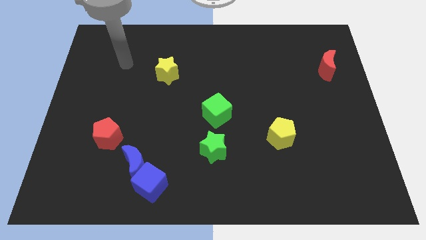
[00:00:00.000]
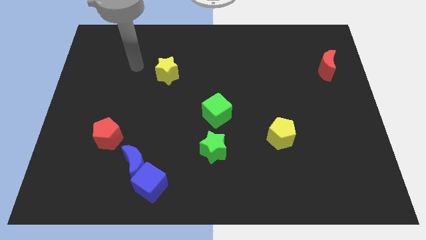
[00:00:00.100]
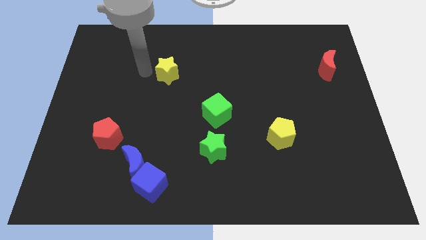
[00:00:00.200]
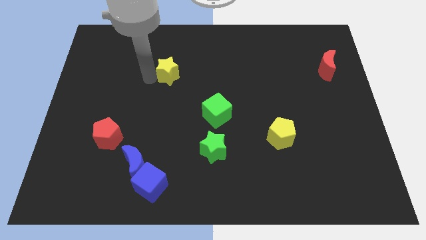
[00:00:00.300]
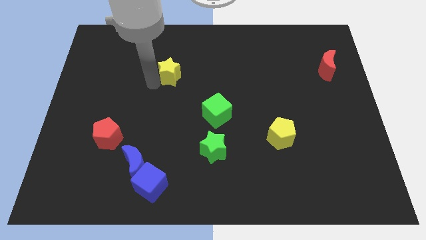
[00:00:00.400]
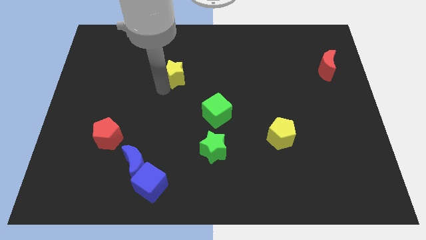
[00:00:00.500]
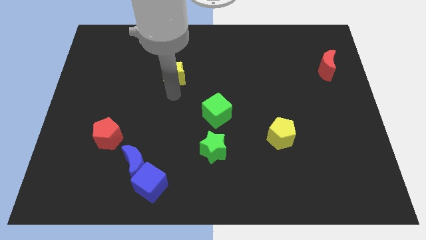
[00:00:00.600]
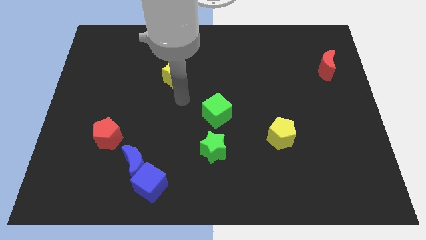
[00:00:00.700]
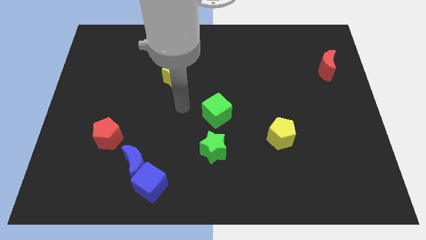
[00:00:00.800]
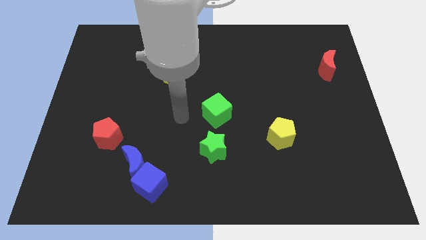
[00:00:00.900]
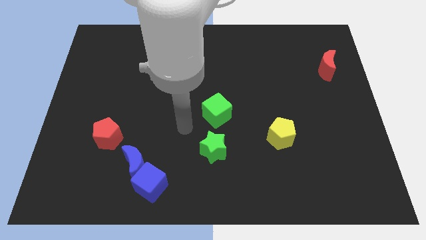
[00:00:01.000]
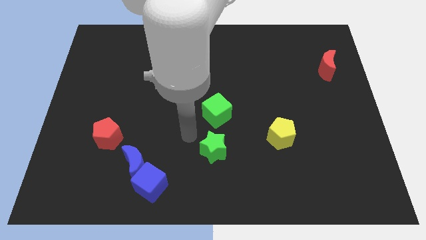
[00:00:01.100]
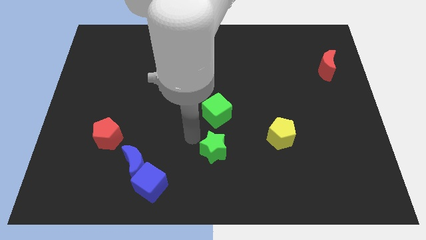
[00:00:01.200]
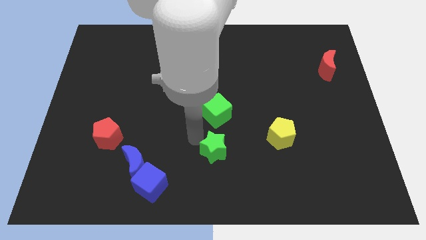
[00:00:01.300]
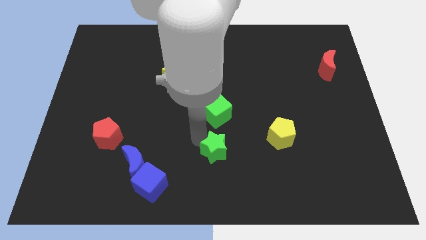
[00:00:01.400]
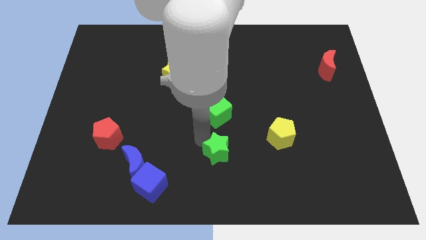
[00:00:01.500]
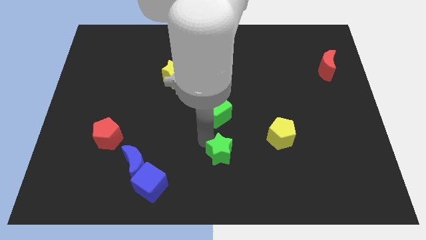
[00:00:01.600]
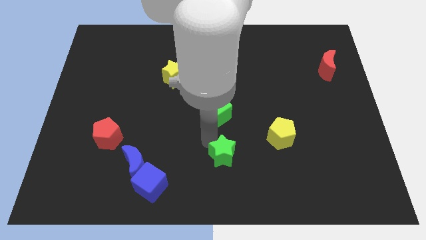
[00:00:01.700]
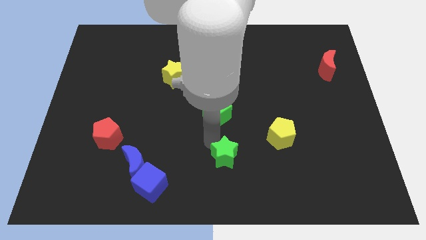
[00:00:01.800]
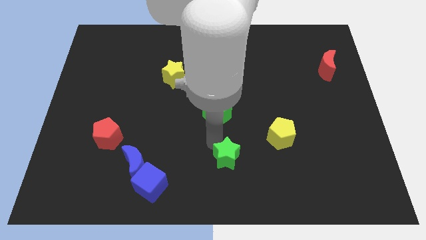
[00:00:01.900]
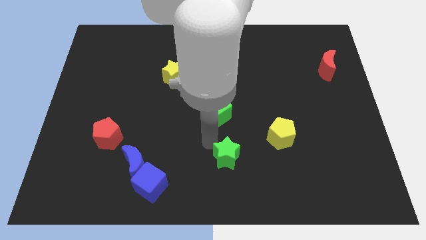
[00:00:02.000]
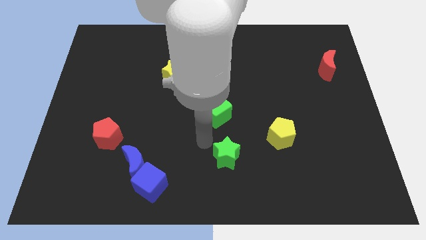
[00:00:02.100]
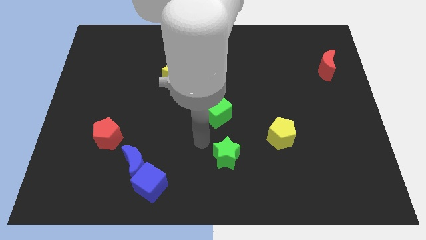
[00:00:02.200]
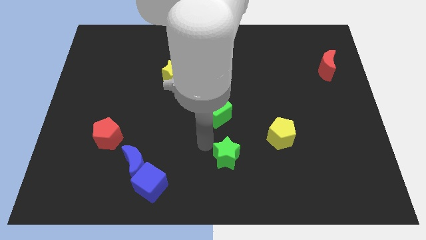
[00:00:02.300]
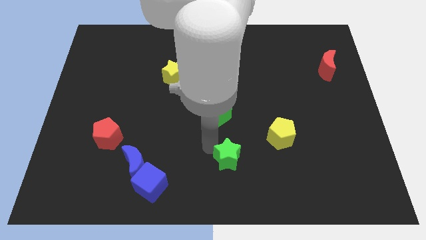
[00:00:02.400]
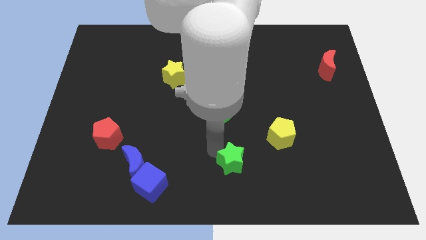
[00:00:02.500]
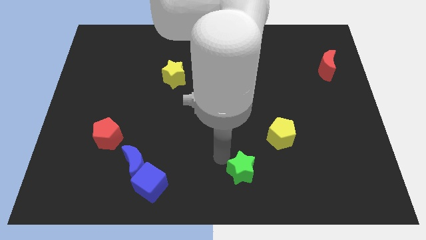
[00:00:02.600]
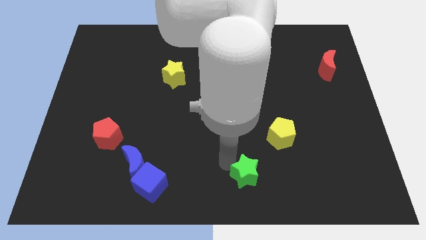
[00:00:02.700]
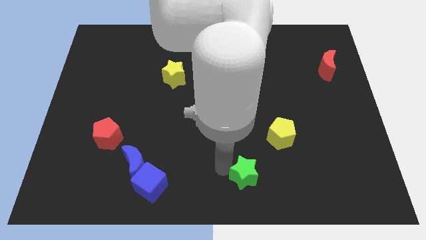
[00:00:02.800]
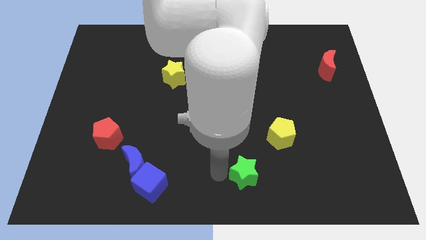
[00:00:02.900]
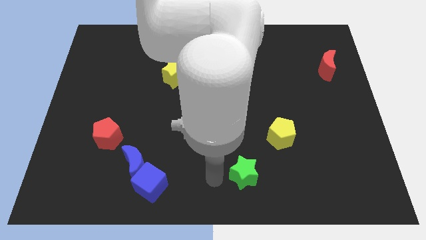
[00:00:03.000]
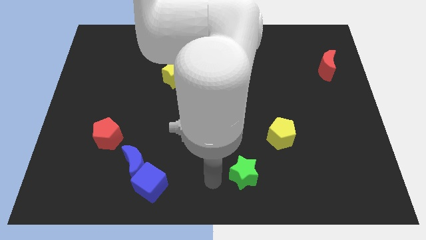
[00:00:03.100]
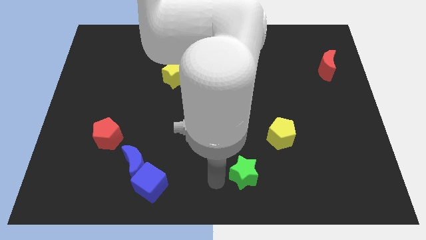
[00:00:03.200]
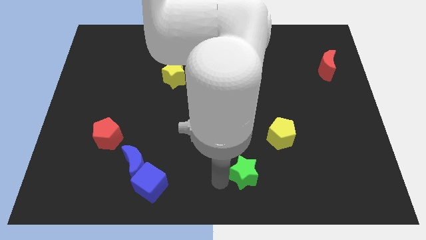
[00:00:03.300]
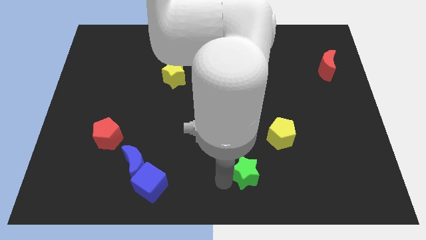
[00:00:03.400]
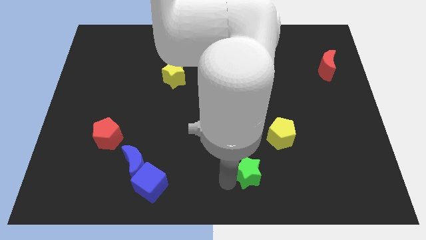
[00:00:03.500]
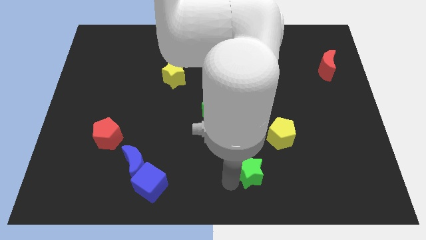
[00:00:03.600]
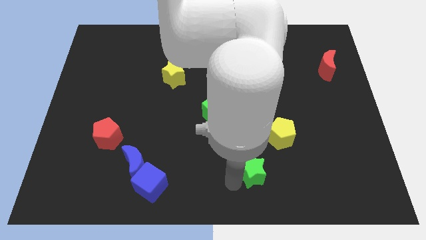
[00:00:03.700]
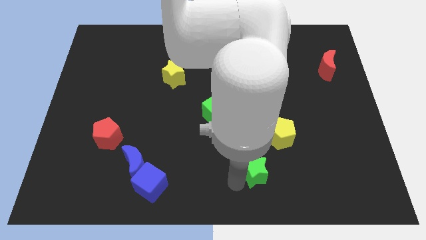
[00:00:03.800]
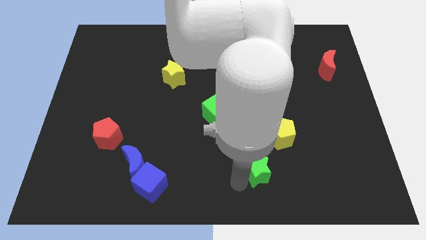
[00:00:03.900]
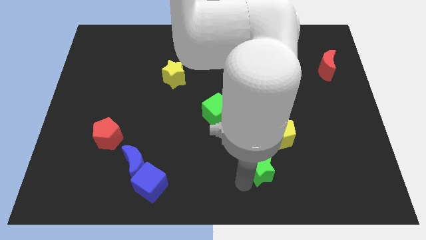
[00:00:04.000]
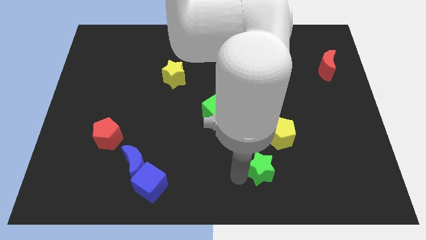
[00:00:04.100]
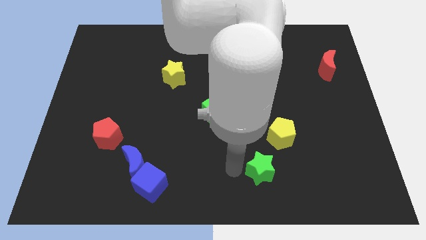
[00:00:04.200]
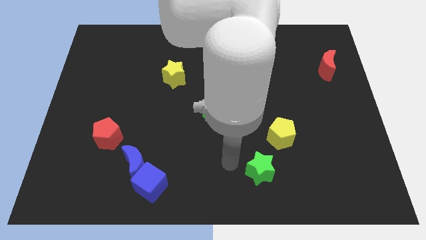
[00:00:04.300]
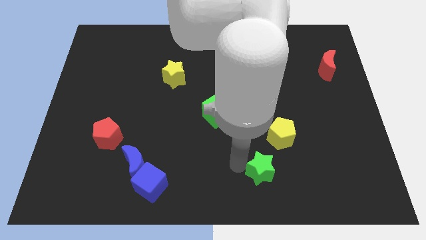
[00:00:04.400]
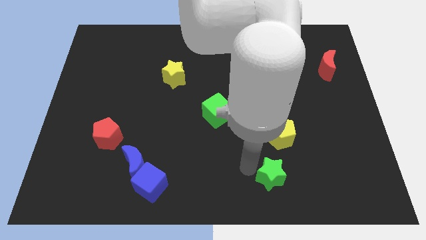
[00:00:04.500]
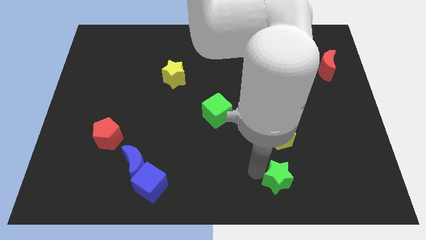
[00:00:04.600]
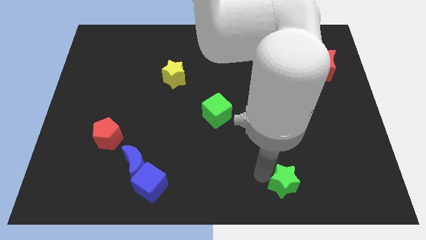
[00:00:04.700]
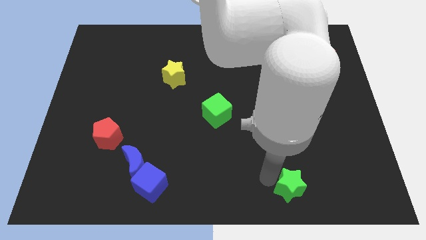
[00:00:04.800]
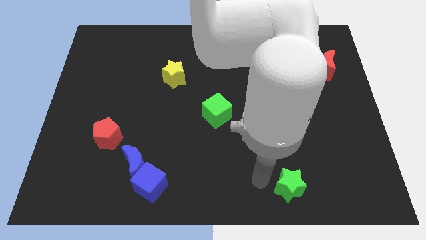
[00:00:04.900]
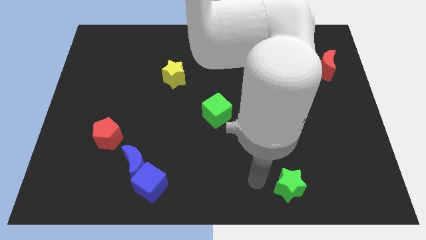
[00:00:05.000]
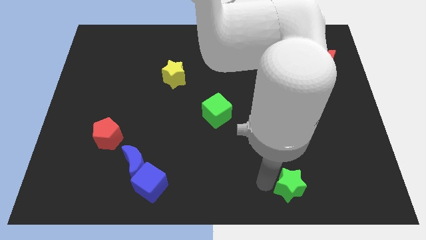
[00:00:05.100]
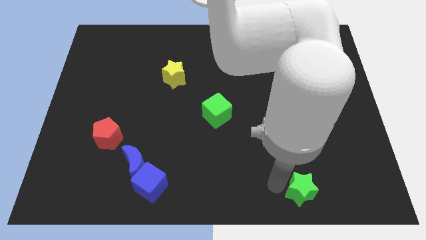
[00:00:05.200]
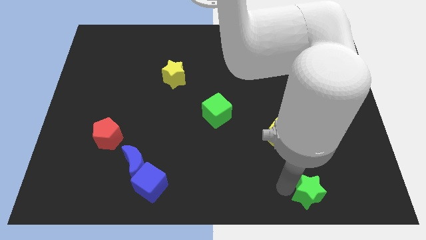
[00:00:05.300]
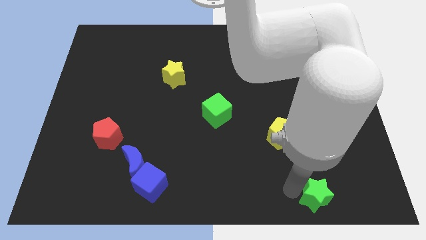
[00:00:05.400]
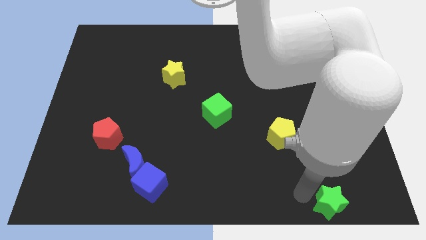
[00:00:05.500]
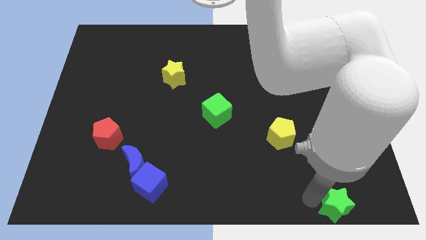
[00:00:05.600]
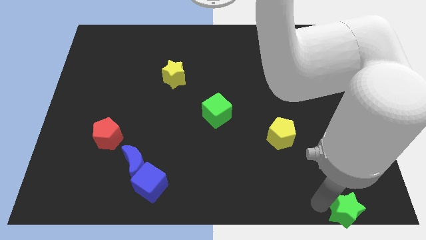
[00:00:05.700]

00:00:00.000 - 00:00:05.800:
move the green star to the bottom right
